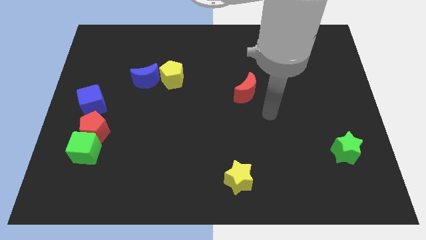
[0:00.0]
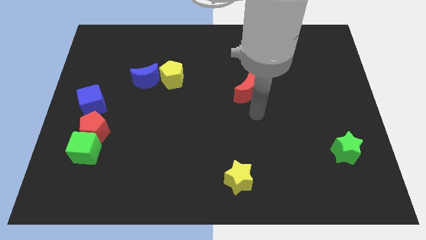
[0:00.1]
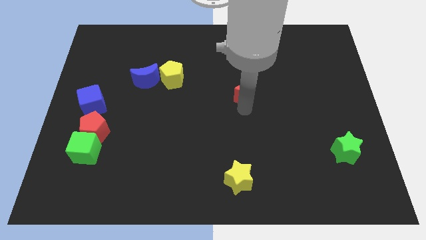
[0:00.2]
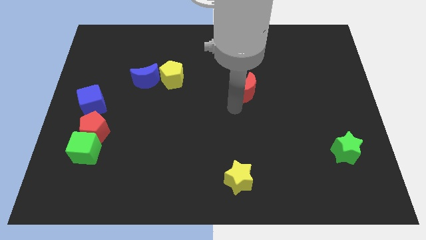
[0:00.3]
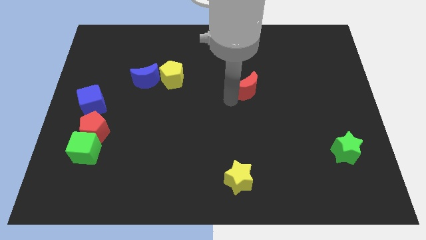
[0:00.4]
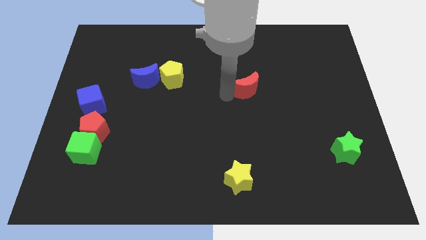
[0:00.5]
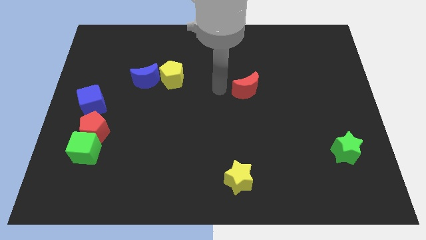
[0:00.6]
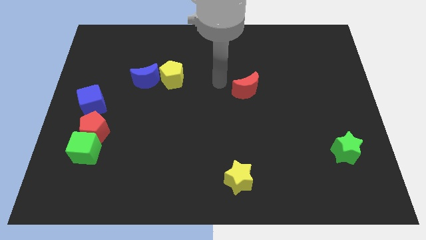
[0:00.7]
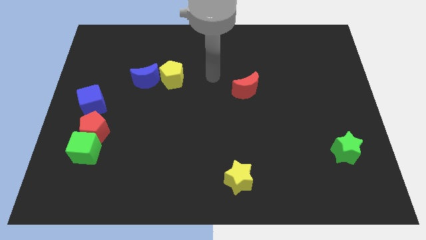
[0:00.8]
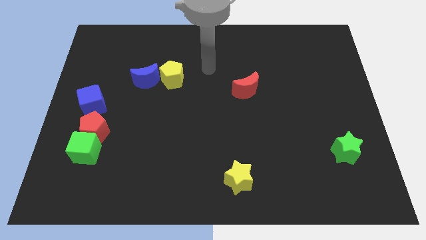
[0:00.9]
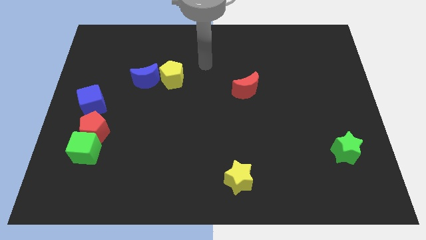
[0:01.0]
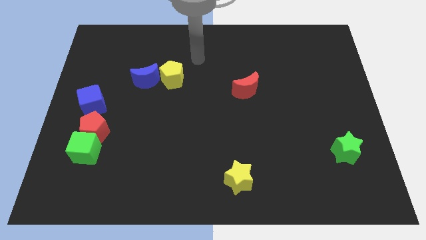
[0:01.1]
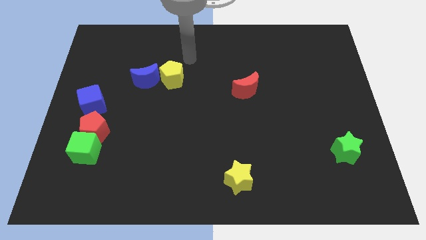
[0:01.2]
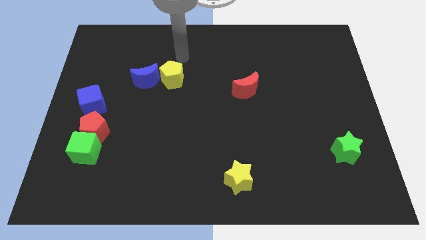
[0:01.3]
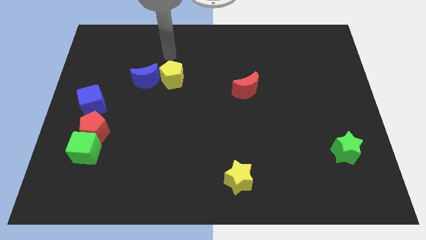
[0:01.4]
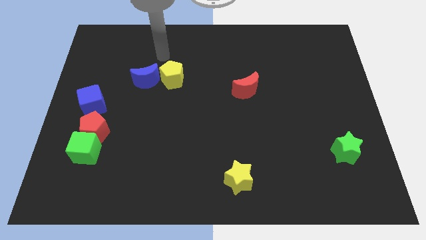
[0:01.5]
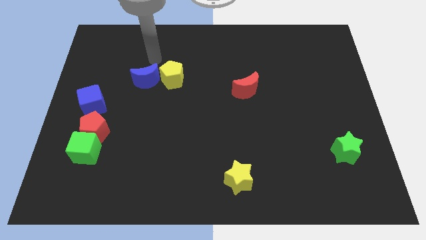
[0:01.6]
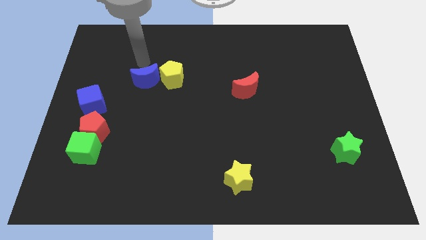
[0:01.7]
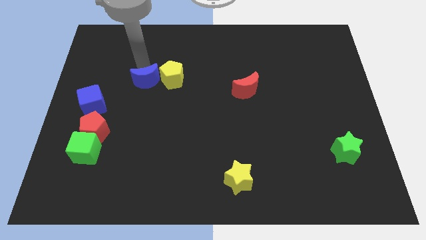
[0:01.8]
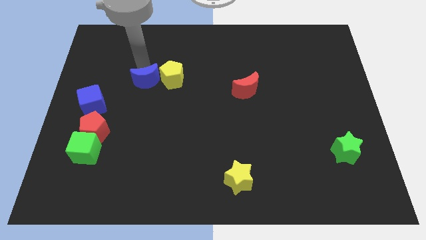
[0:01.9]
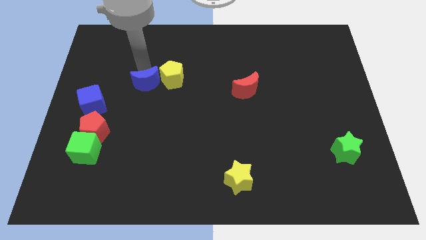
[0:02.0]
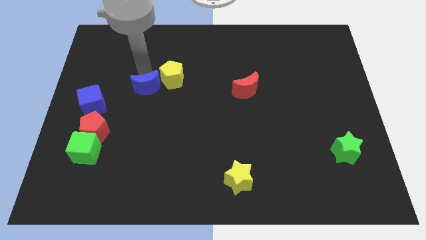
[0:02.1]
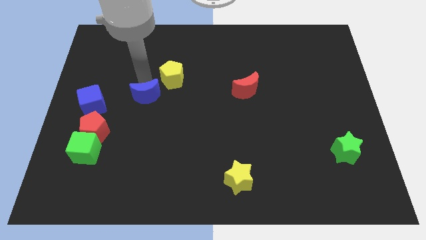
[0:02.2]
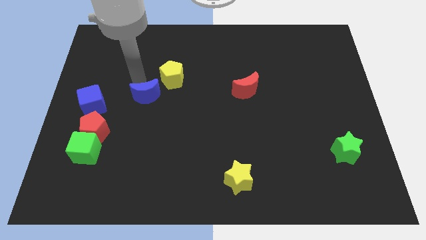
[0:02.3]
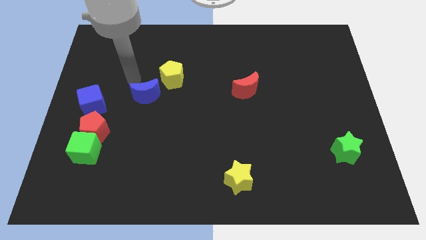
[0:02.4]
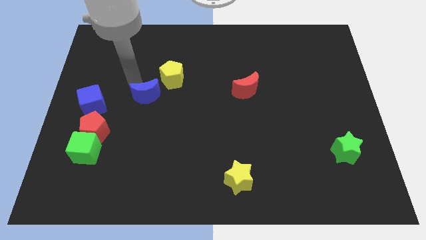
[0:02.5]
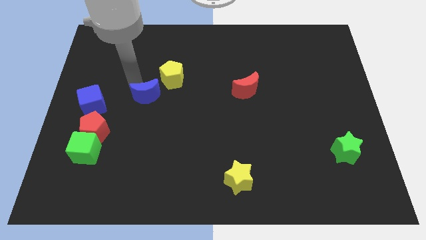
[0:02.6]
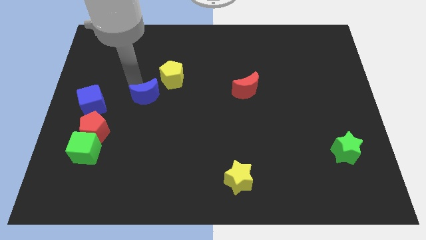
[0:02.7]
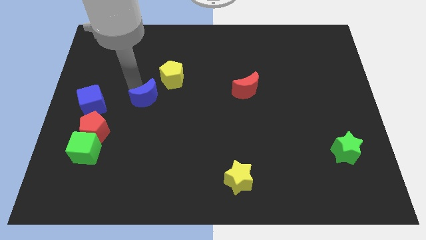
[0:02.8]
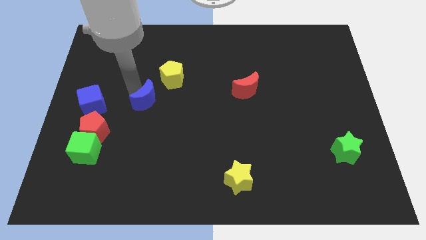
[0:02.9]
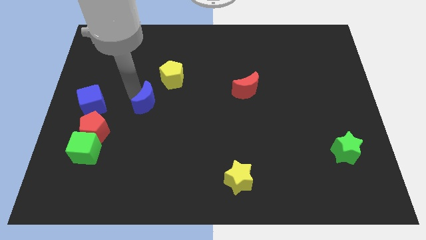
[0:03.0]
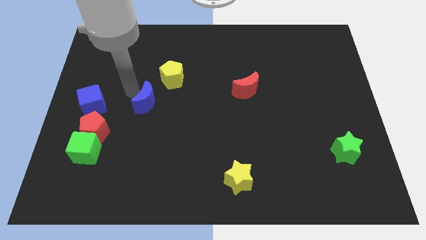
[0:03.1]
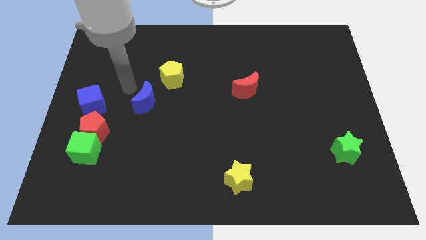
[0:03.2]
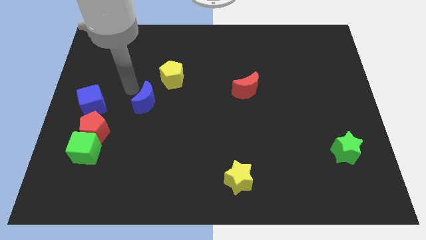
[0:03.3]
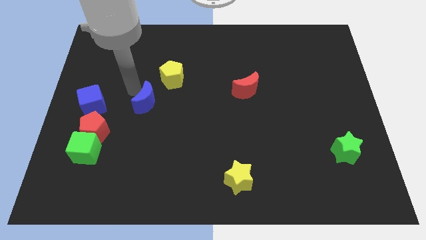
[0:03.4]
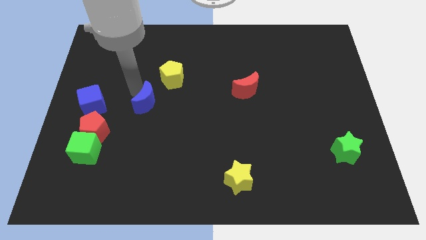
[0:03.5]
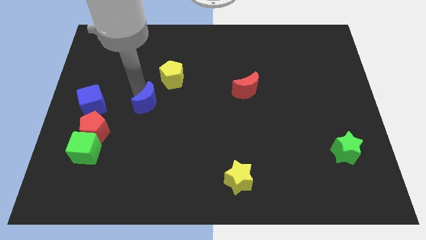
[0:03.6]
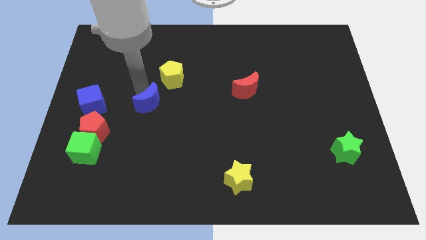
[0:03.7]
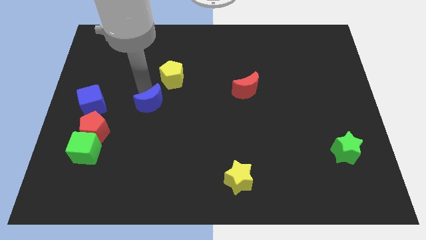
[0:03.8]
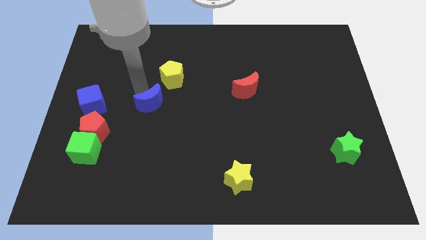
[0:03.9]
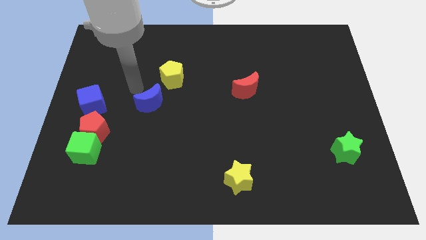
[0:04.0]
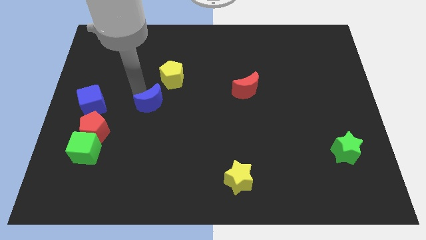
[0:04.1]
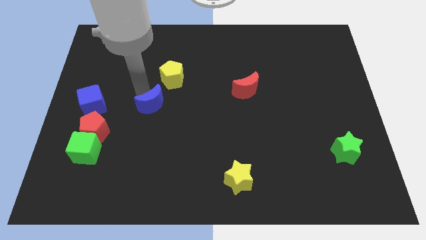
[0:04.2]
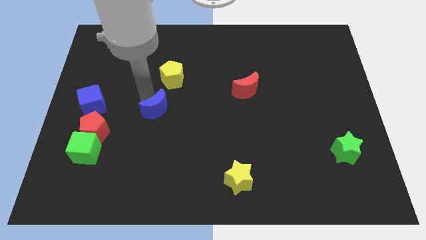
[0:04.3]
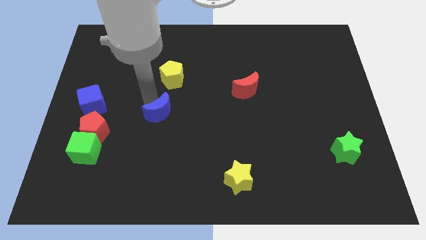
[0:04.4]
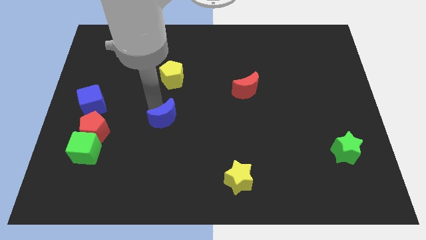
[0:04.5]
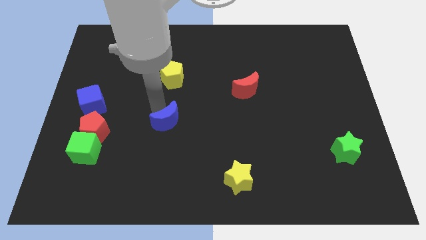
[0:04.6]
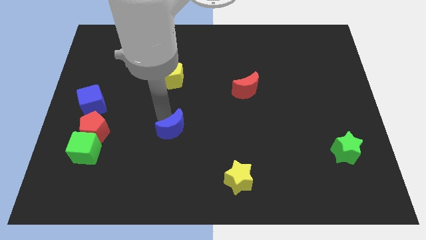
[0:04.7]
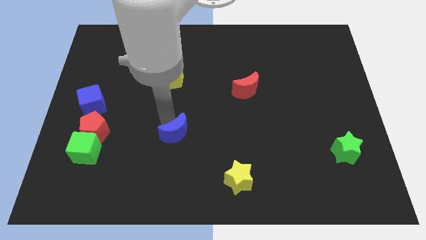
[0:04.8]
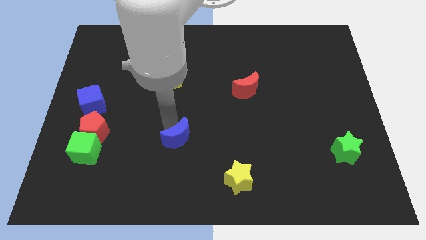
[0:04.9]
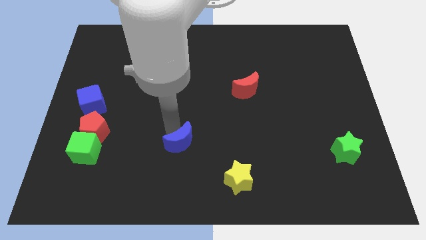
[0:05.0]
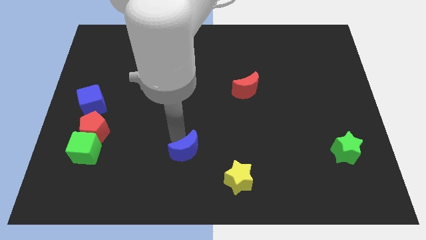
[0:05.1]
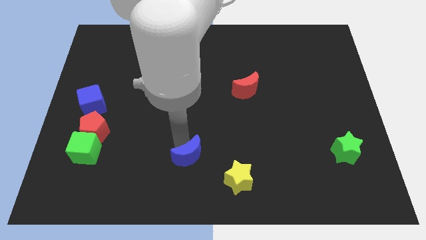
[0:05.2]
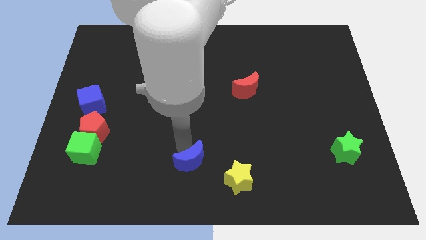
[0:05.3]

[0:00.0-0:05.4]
put the blue moon to the bottom side

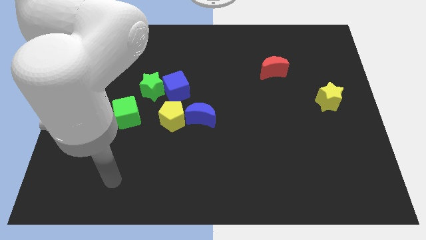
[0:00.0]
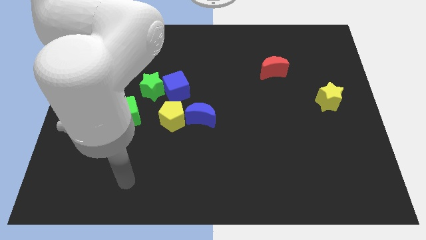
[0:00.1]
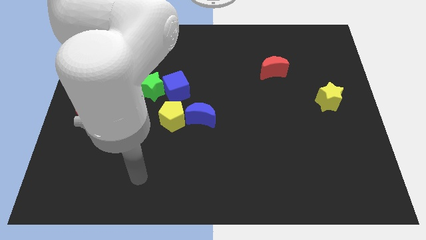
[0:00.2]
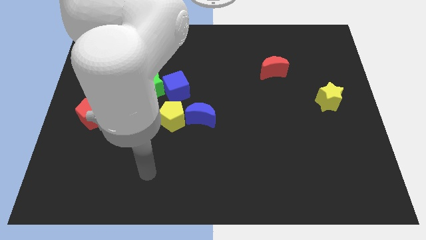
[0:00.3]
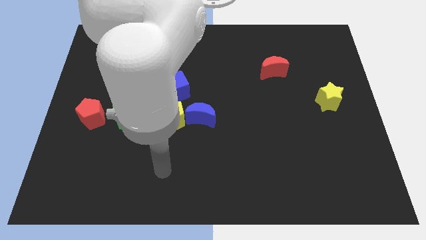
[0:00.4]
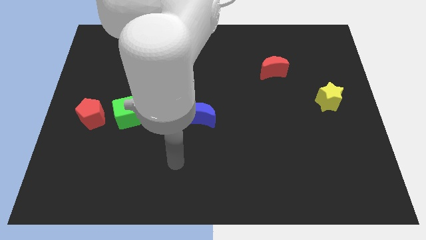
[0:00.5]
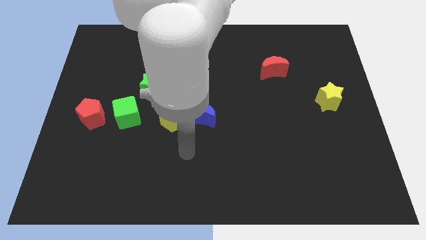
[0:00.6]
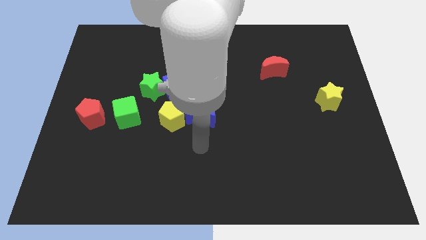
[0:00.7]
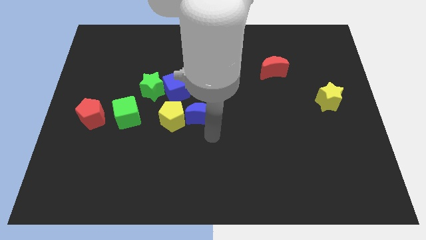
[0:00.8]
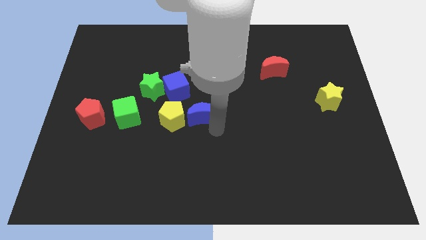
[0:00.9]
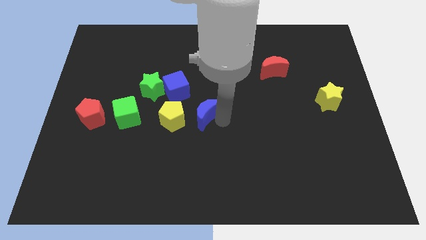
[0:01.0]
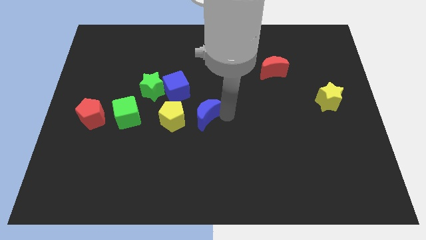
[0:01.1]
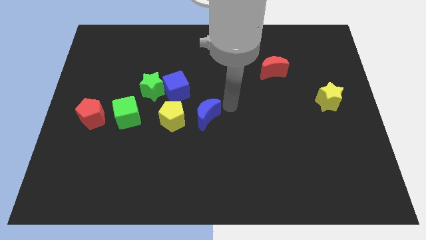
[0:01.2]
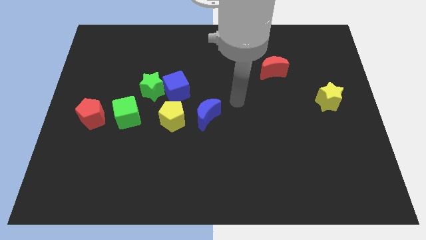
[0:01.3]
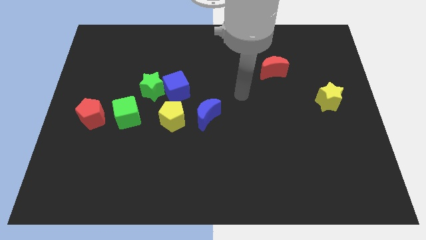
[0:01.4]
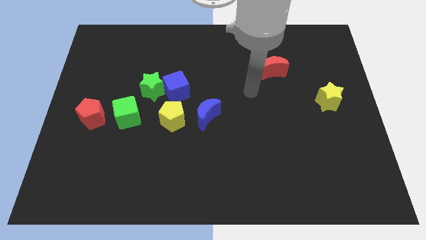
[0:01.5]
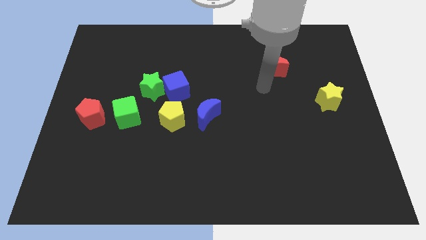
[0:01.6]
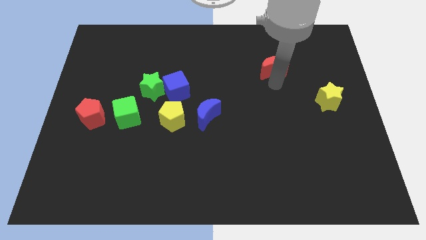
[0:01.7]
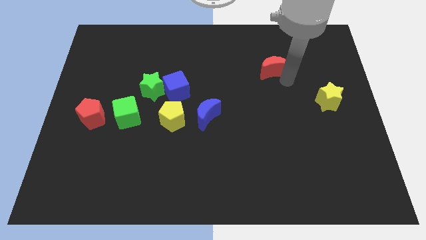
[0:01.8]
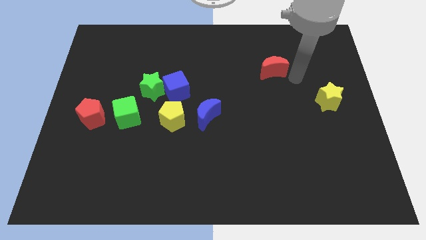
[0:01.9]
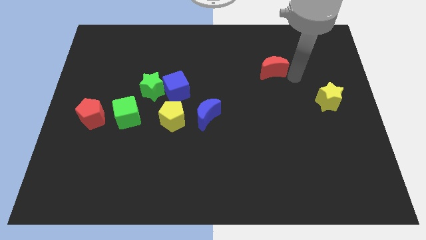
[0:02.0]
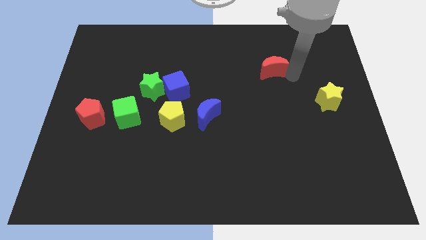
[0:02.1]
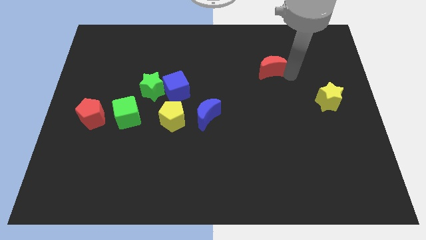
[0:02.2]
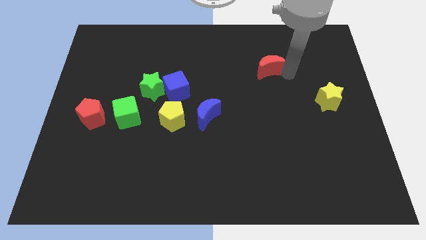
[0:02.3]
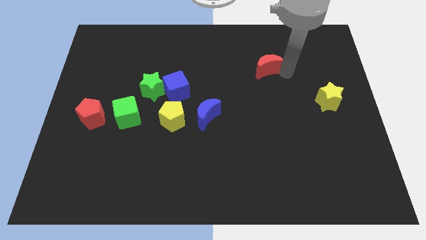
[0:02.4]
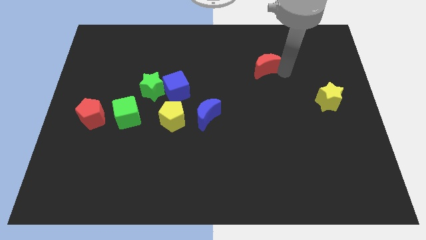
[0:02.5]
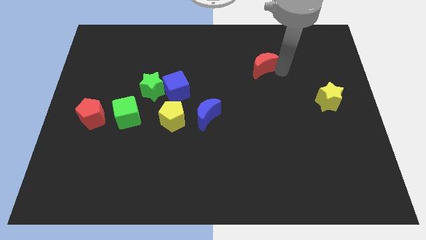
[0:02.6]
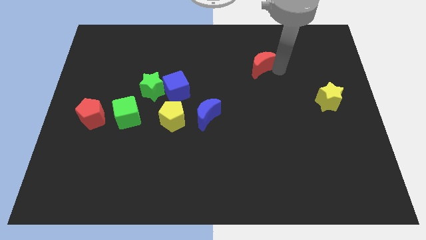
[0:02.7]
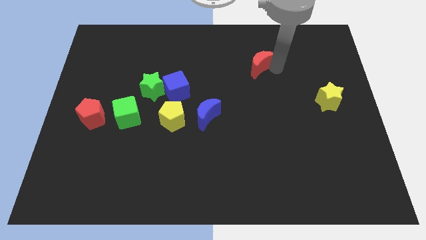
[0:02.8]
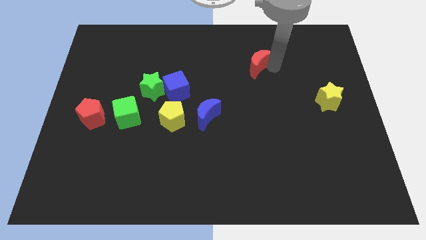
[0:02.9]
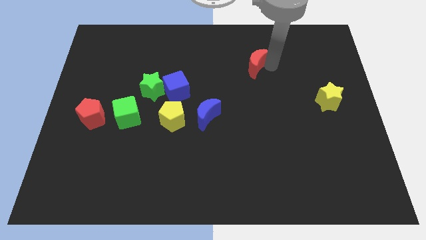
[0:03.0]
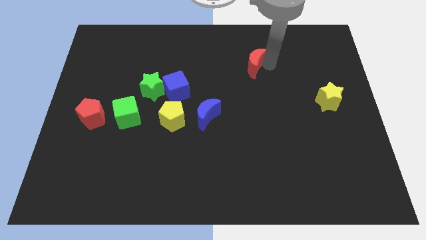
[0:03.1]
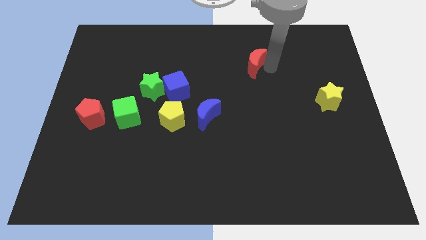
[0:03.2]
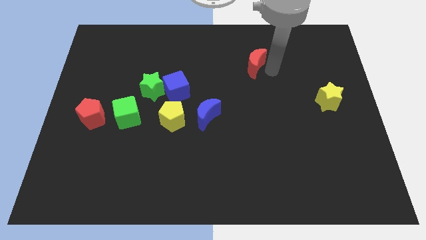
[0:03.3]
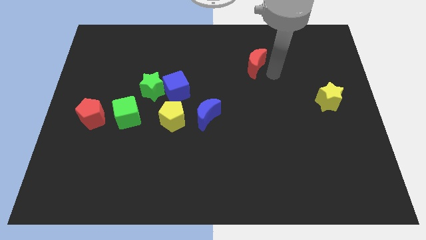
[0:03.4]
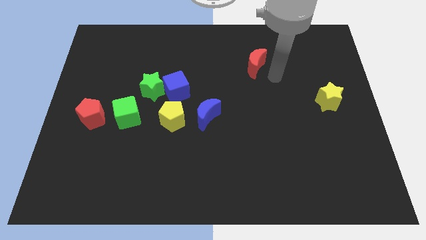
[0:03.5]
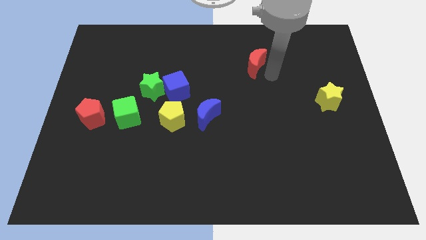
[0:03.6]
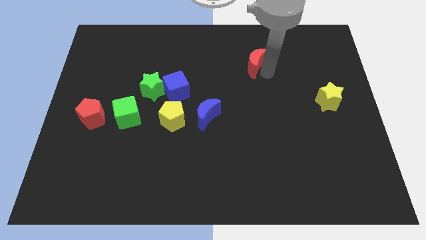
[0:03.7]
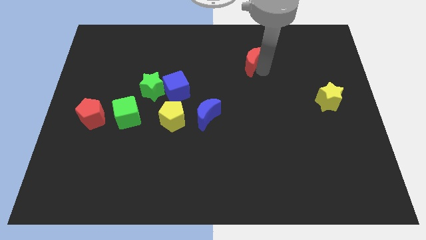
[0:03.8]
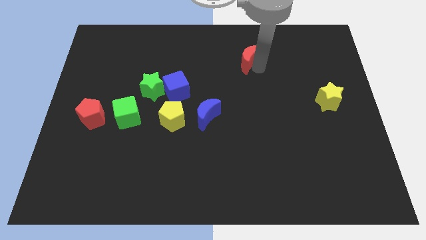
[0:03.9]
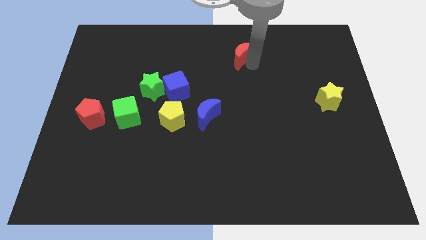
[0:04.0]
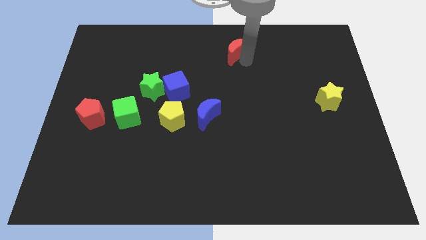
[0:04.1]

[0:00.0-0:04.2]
push the red moon to the towards your base
